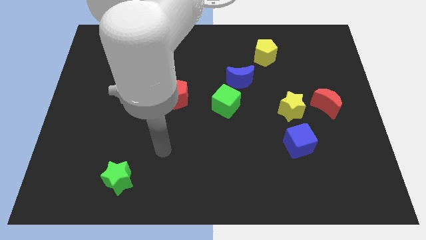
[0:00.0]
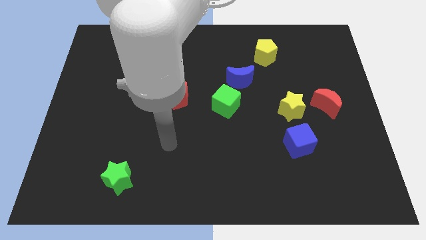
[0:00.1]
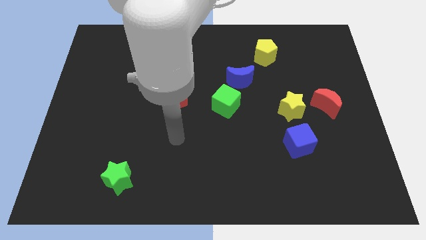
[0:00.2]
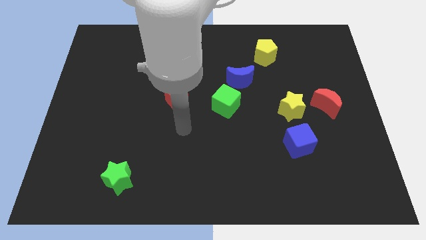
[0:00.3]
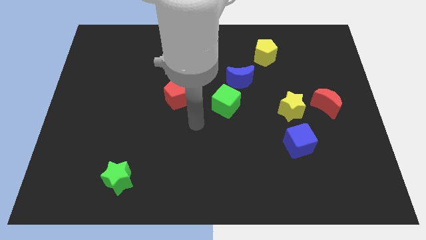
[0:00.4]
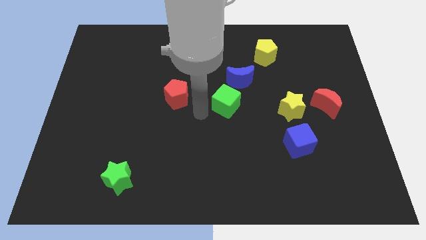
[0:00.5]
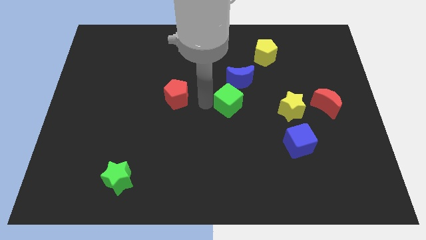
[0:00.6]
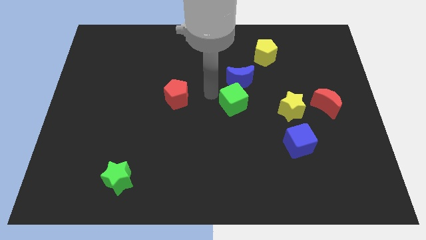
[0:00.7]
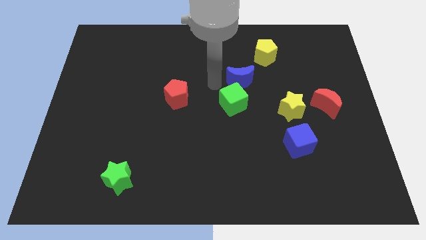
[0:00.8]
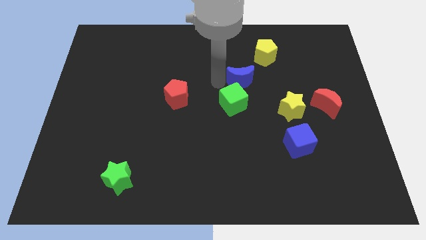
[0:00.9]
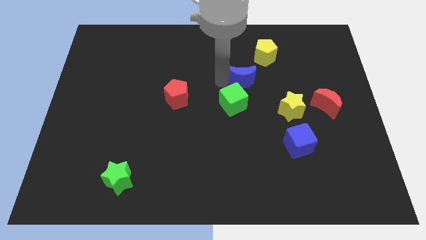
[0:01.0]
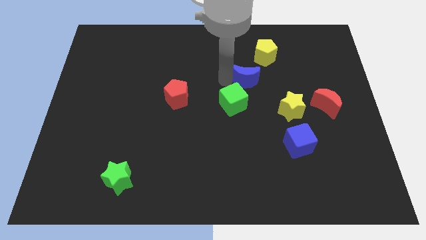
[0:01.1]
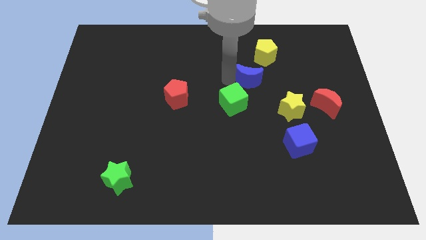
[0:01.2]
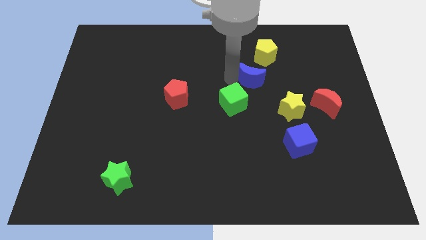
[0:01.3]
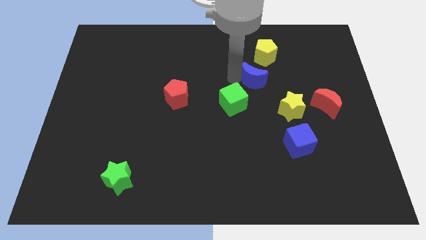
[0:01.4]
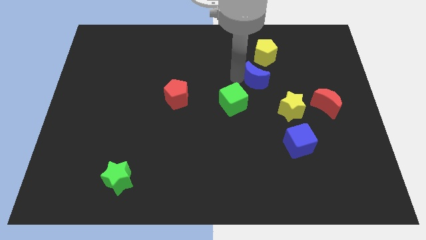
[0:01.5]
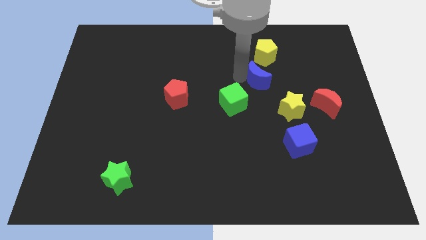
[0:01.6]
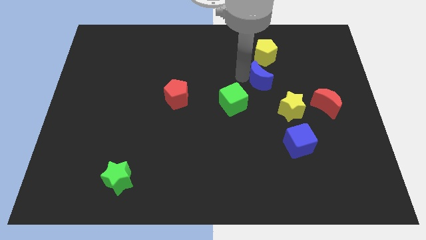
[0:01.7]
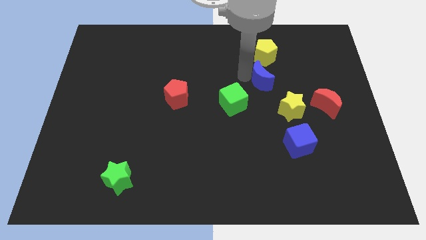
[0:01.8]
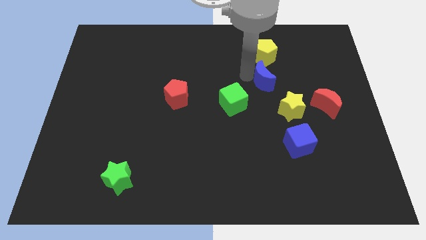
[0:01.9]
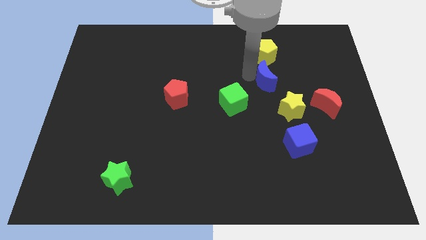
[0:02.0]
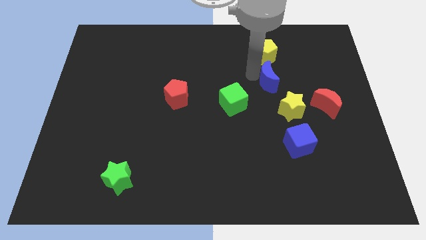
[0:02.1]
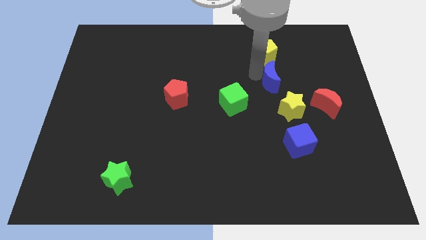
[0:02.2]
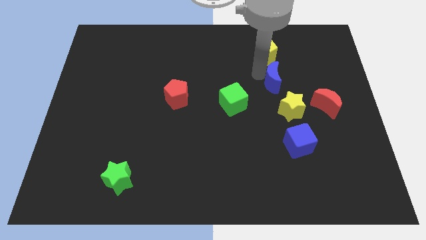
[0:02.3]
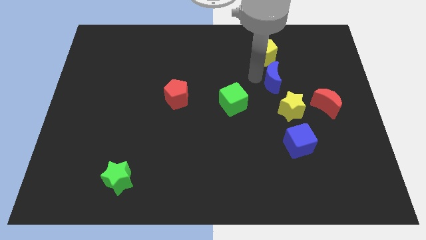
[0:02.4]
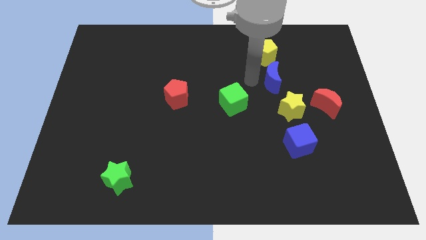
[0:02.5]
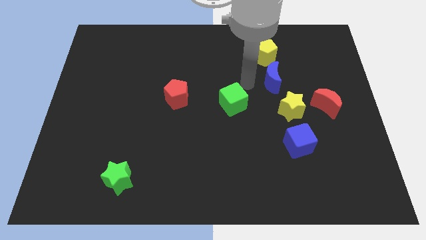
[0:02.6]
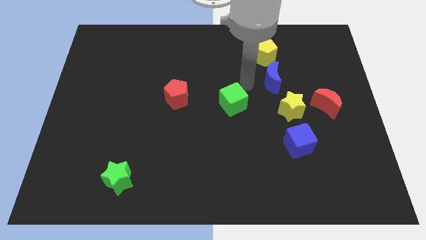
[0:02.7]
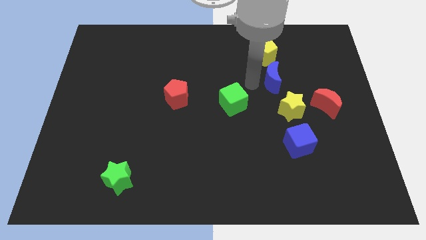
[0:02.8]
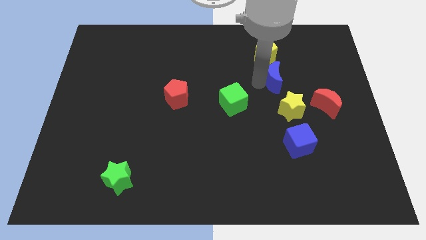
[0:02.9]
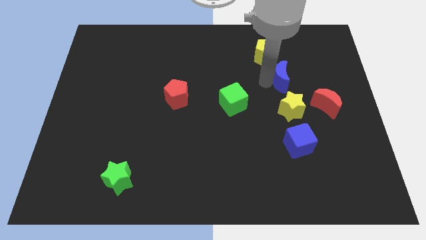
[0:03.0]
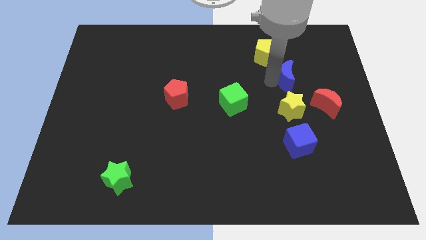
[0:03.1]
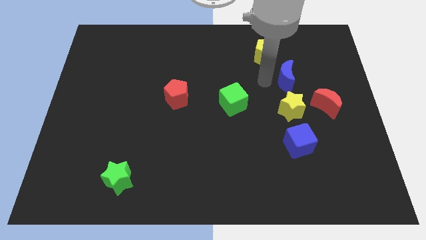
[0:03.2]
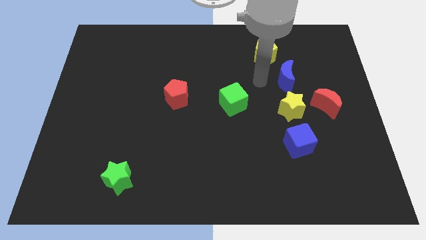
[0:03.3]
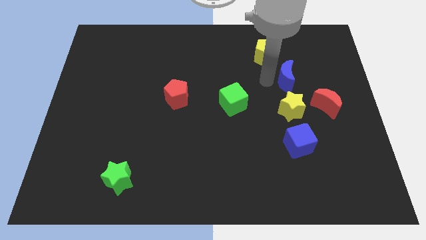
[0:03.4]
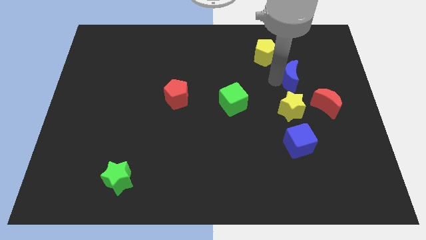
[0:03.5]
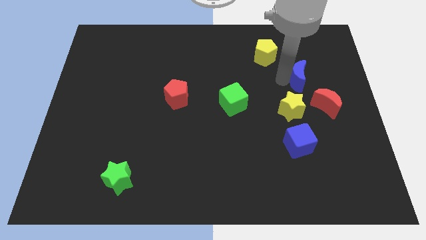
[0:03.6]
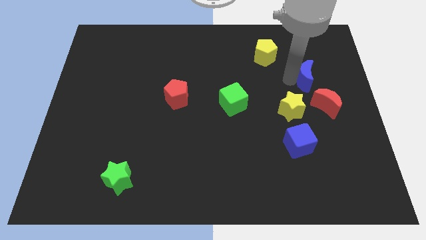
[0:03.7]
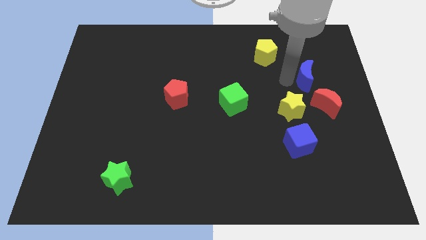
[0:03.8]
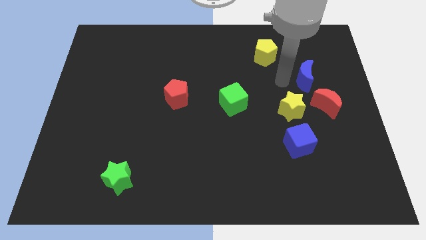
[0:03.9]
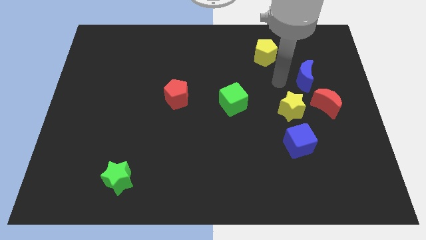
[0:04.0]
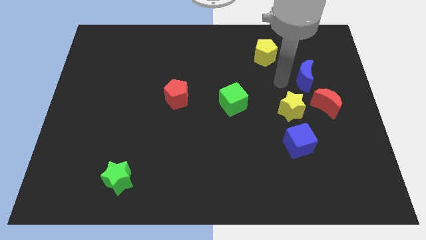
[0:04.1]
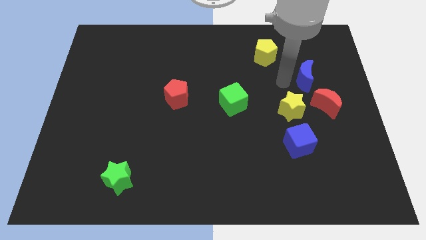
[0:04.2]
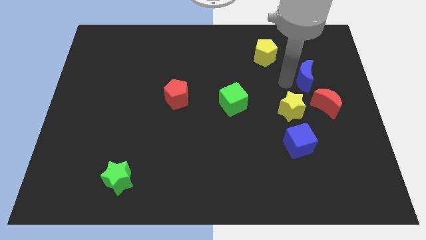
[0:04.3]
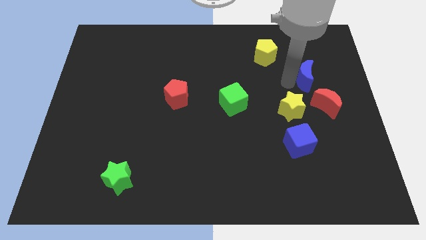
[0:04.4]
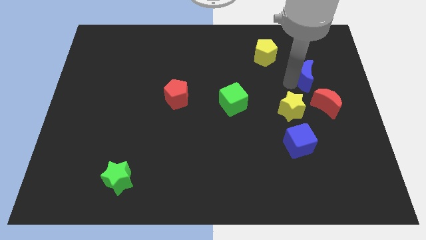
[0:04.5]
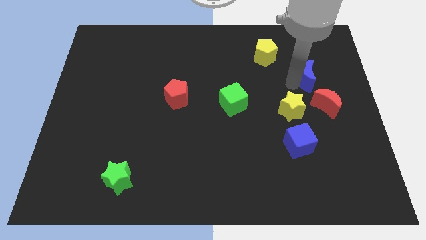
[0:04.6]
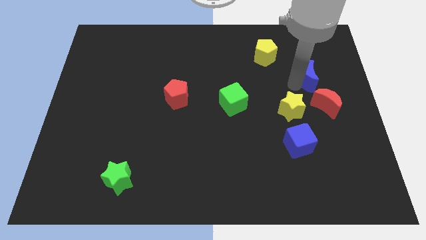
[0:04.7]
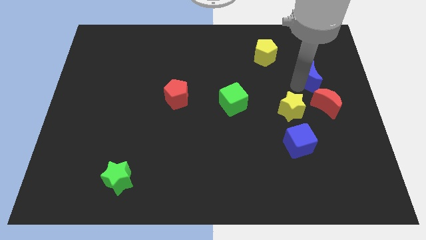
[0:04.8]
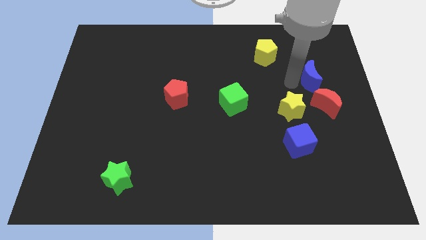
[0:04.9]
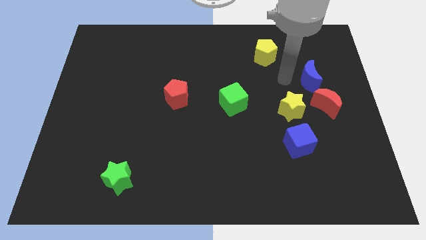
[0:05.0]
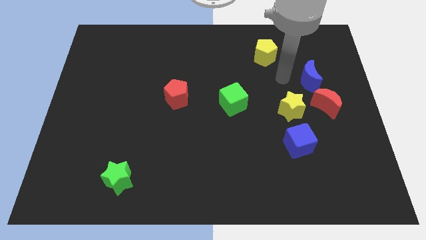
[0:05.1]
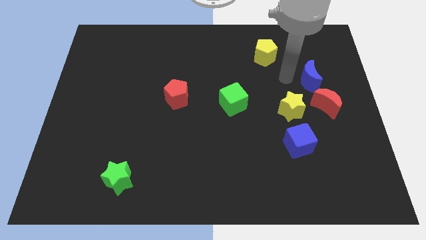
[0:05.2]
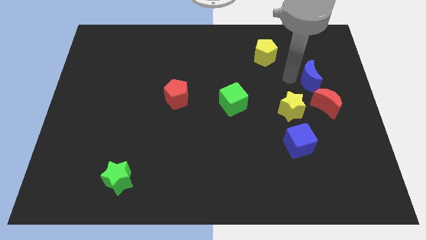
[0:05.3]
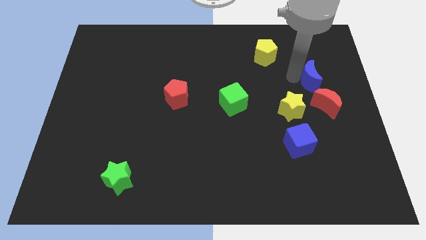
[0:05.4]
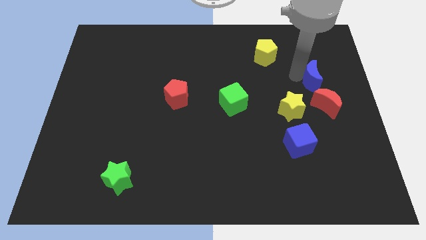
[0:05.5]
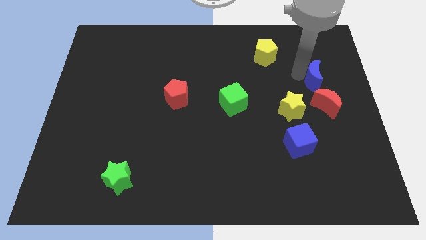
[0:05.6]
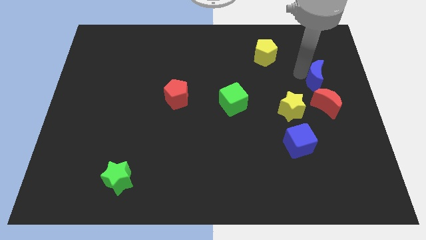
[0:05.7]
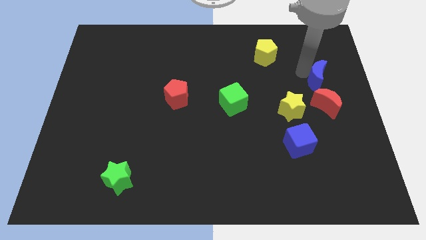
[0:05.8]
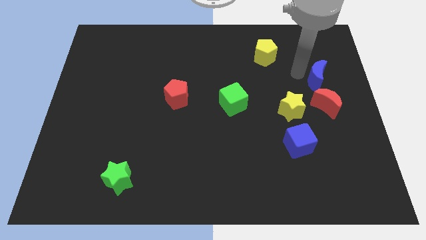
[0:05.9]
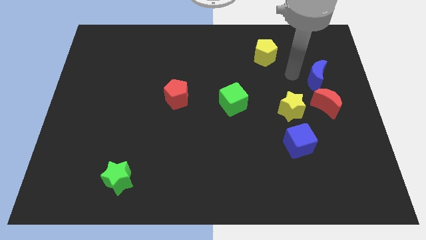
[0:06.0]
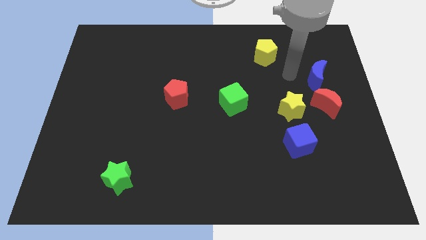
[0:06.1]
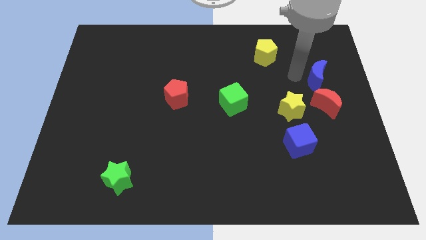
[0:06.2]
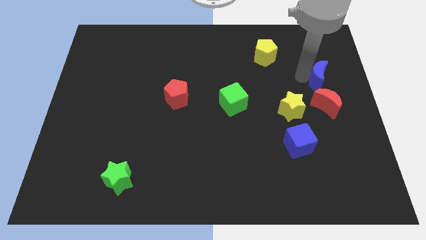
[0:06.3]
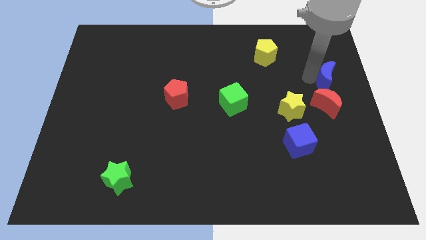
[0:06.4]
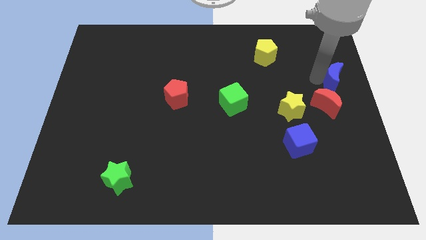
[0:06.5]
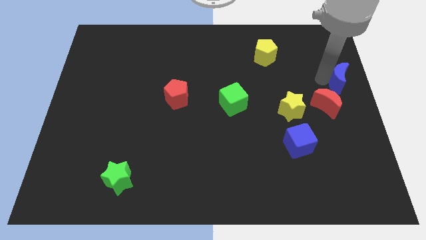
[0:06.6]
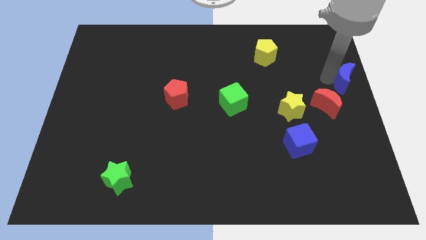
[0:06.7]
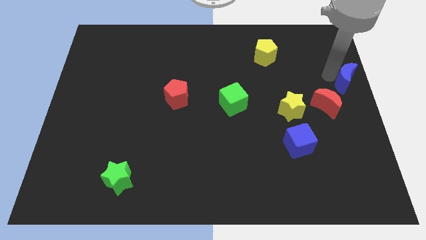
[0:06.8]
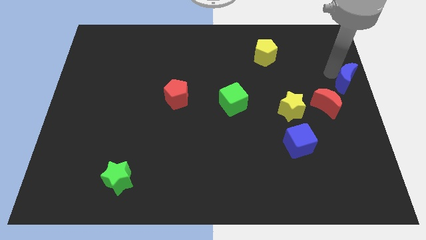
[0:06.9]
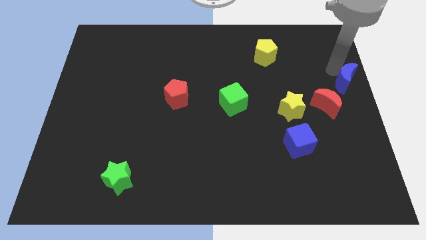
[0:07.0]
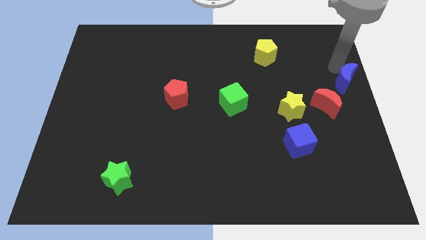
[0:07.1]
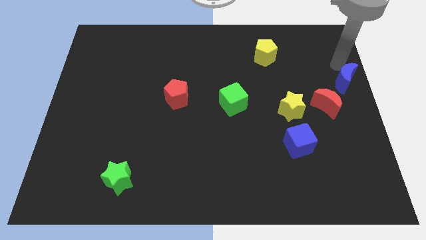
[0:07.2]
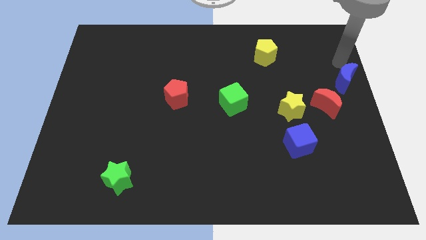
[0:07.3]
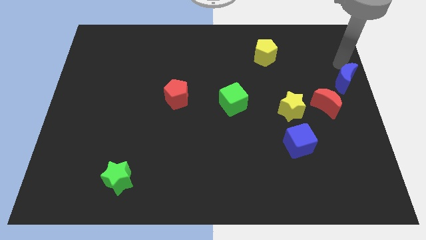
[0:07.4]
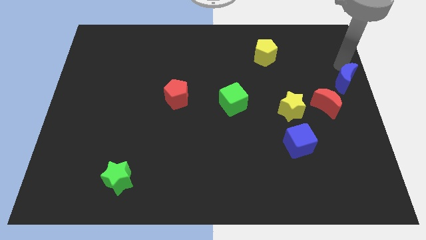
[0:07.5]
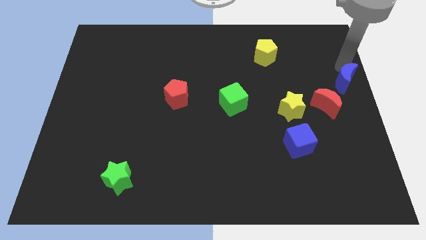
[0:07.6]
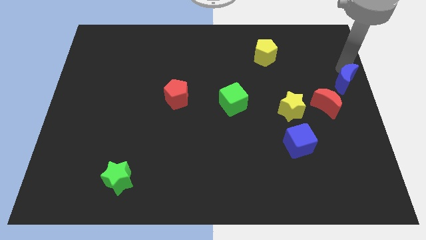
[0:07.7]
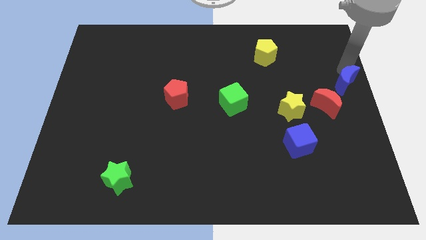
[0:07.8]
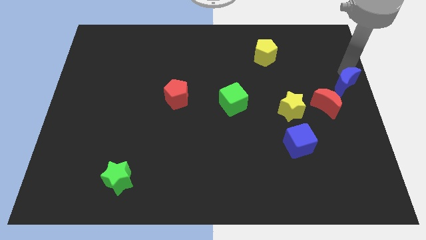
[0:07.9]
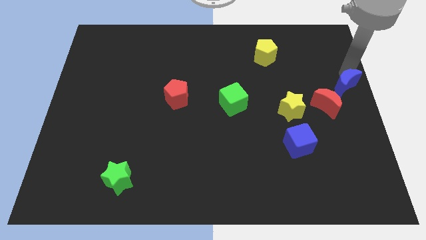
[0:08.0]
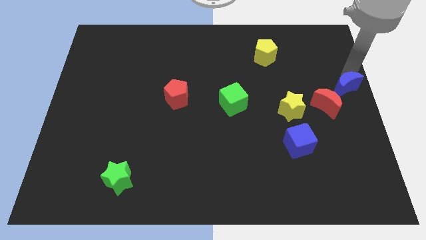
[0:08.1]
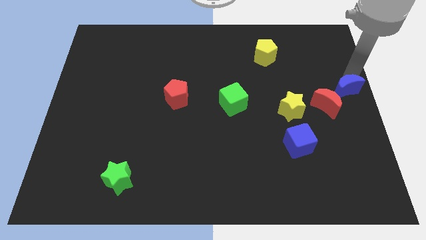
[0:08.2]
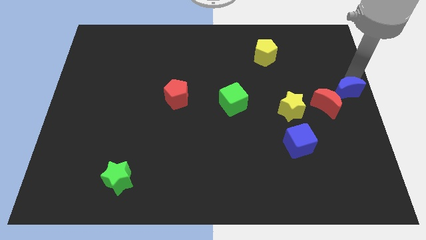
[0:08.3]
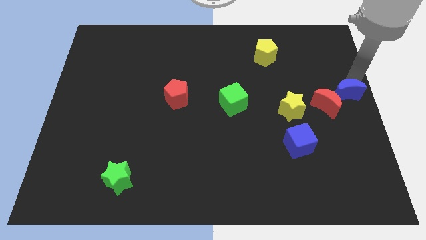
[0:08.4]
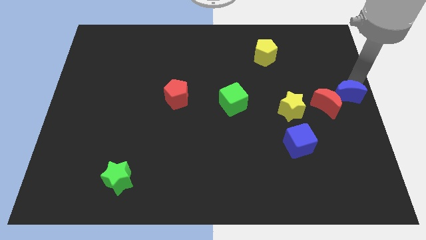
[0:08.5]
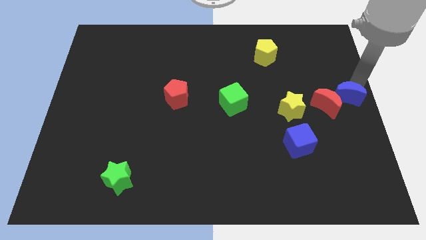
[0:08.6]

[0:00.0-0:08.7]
put the blue moon to the right side of the yellow star
